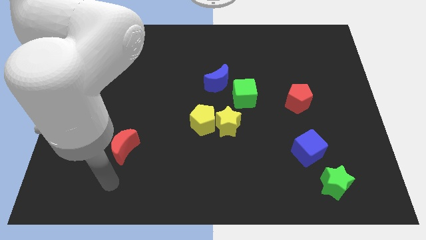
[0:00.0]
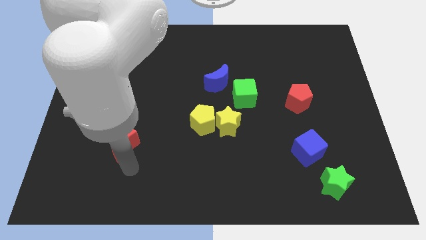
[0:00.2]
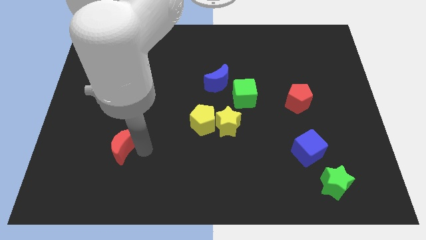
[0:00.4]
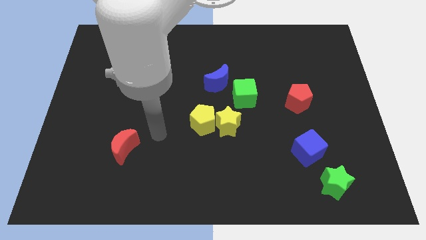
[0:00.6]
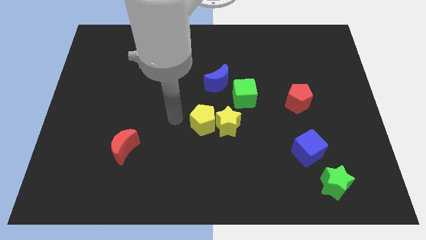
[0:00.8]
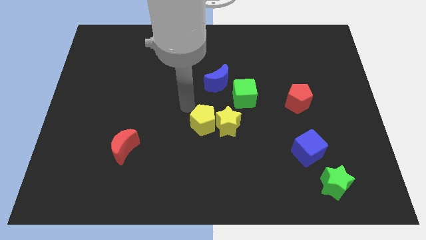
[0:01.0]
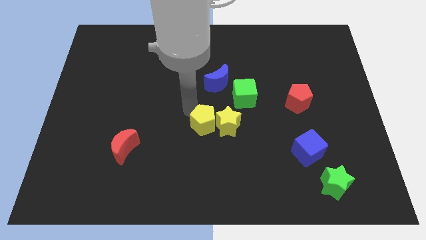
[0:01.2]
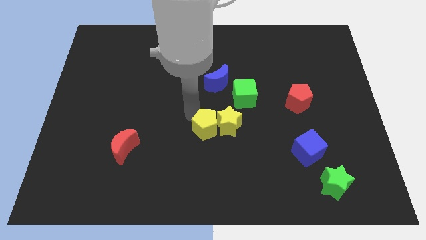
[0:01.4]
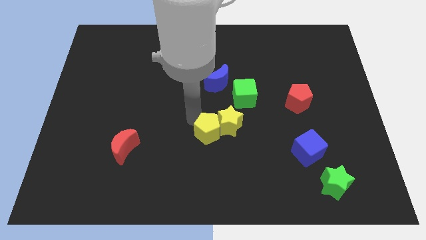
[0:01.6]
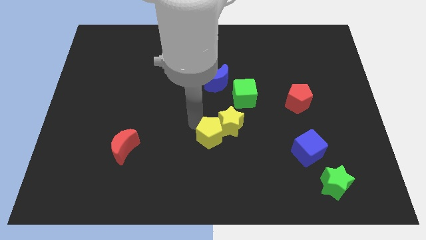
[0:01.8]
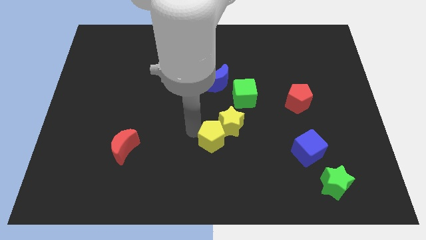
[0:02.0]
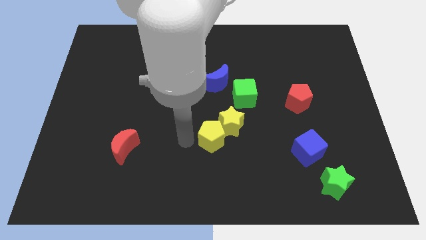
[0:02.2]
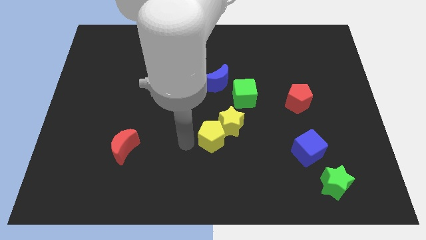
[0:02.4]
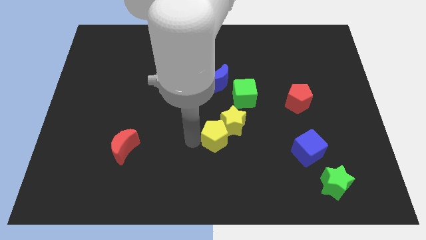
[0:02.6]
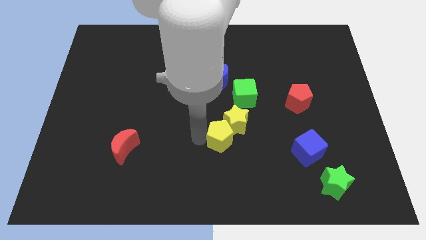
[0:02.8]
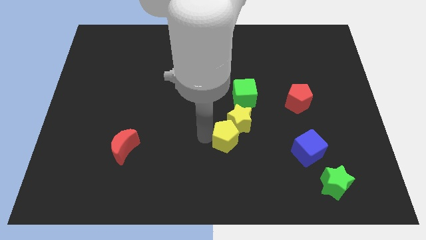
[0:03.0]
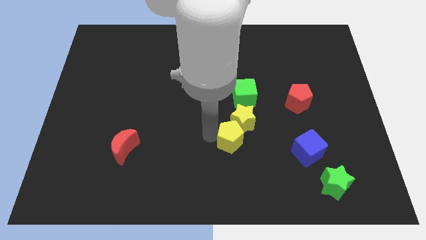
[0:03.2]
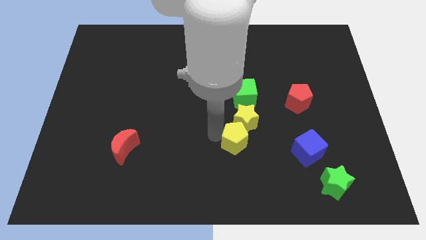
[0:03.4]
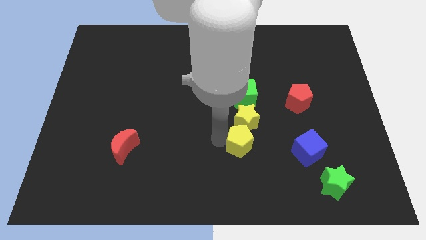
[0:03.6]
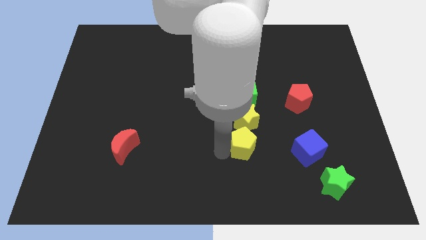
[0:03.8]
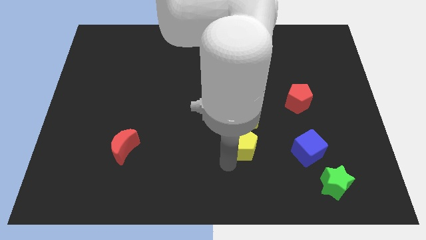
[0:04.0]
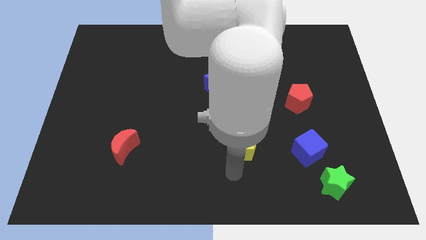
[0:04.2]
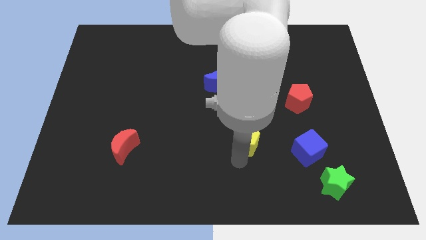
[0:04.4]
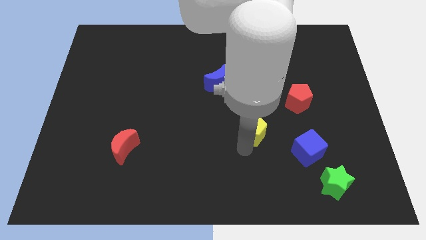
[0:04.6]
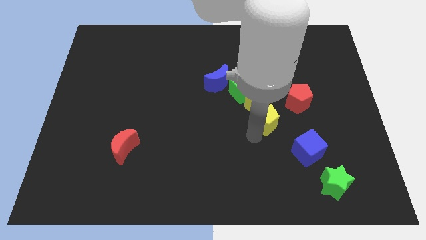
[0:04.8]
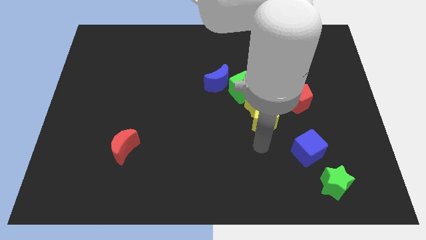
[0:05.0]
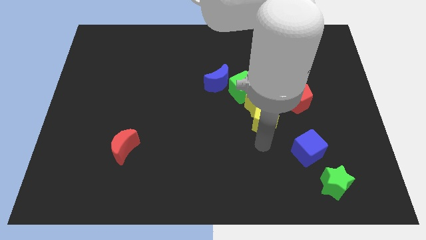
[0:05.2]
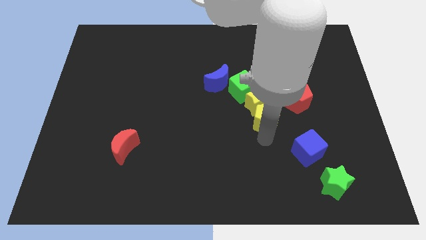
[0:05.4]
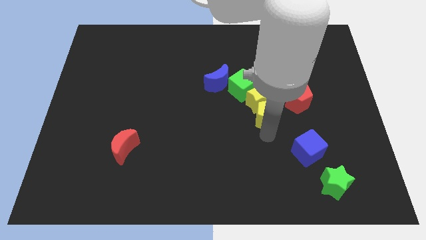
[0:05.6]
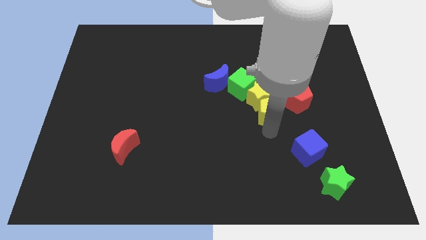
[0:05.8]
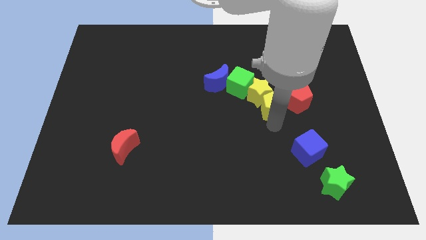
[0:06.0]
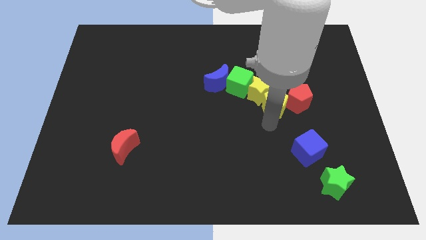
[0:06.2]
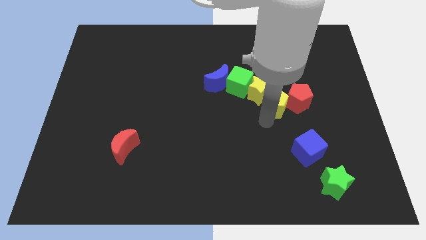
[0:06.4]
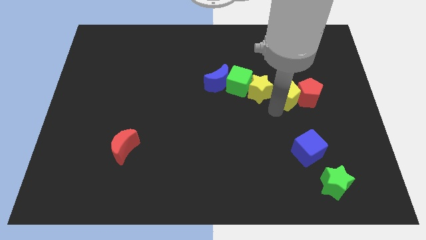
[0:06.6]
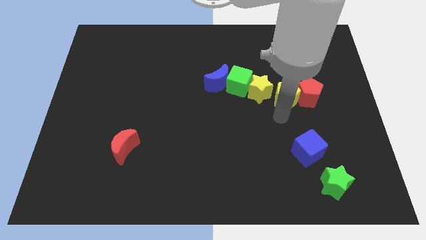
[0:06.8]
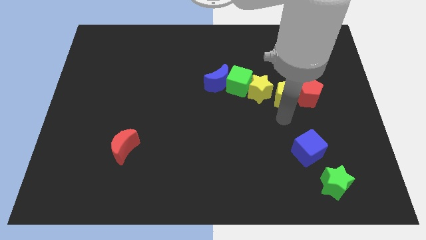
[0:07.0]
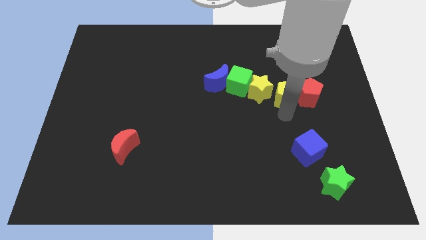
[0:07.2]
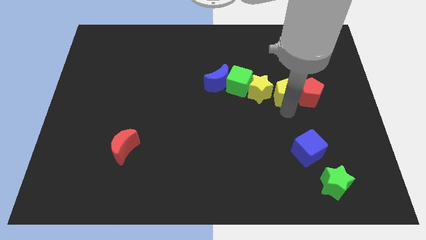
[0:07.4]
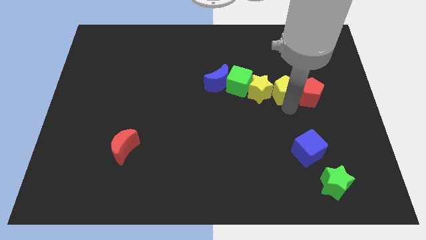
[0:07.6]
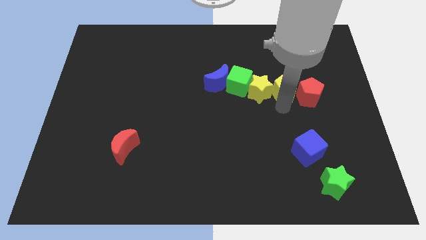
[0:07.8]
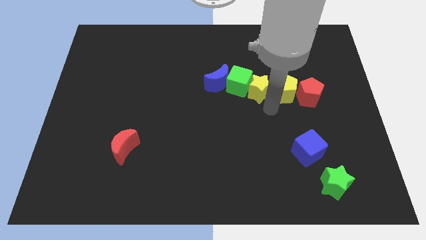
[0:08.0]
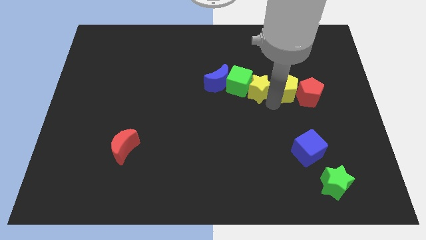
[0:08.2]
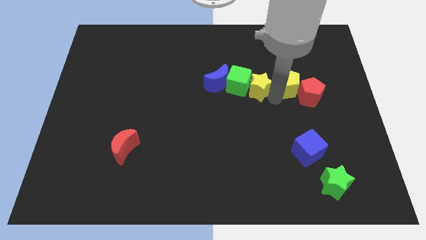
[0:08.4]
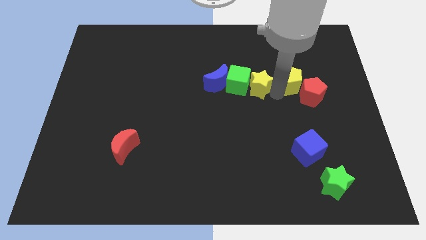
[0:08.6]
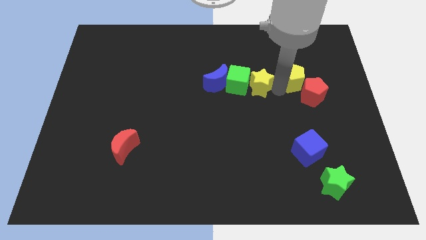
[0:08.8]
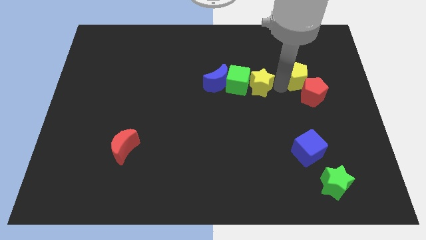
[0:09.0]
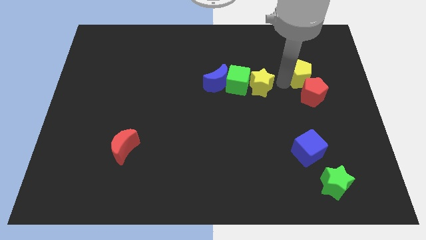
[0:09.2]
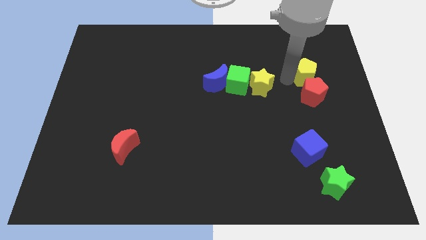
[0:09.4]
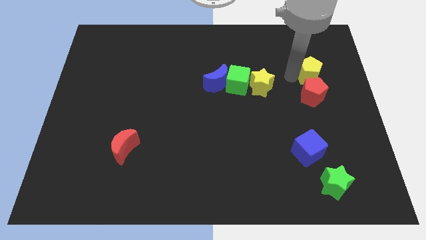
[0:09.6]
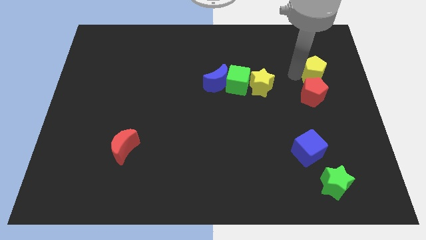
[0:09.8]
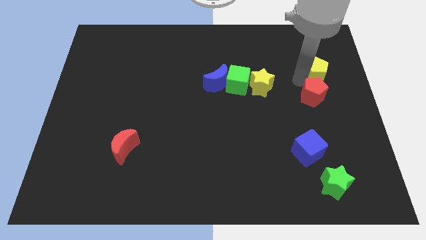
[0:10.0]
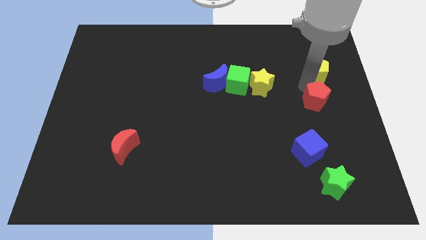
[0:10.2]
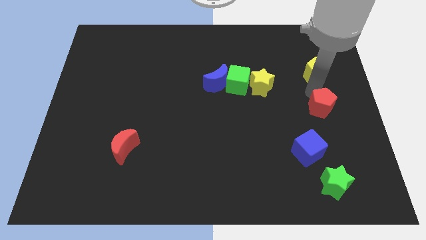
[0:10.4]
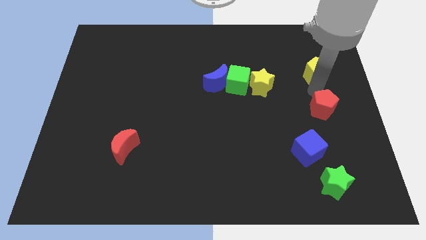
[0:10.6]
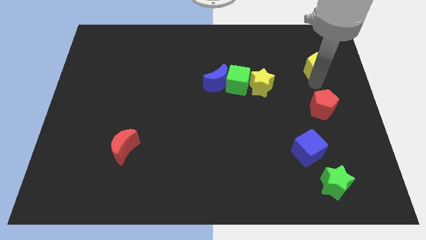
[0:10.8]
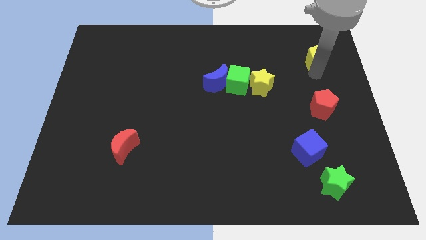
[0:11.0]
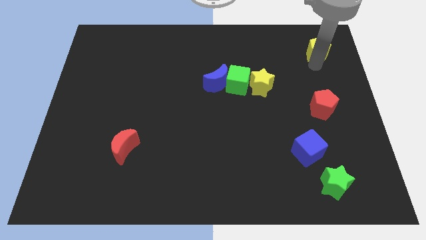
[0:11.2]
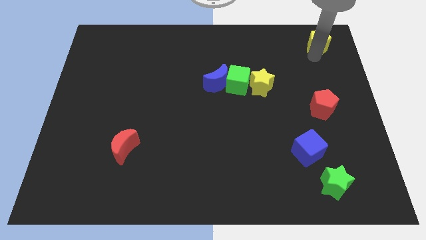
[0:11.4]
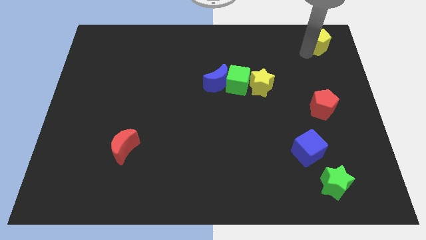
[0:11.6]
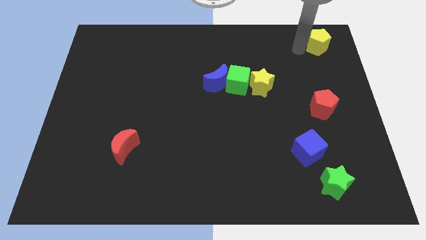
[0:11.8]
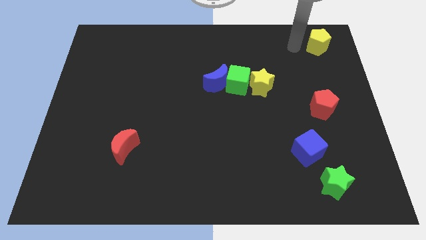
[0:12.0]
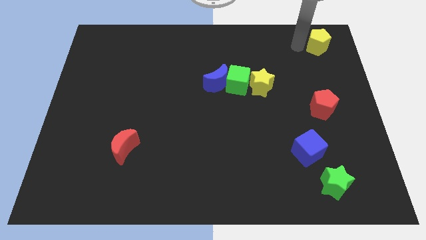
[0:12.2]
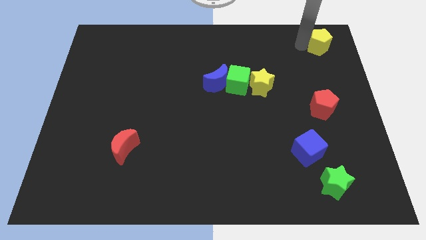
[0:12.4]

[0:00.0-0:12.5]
push the yellow pentagon to the top right corner
